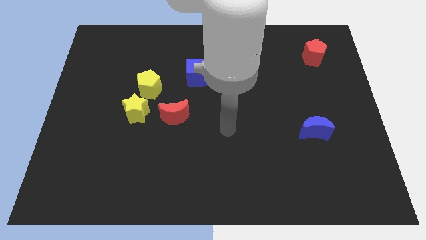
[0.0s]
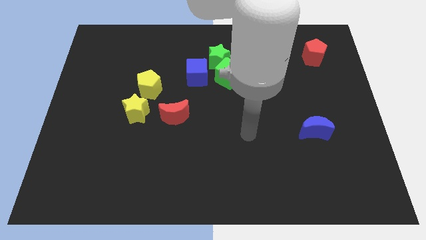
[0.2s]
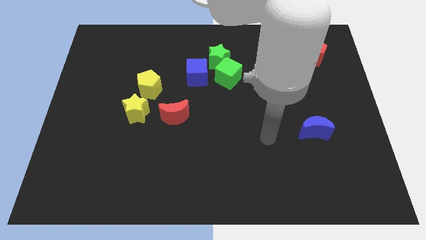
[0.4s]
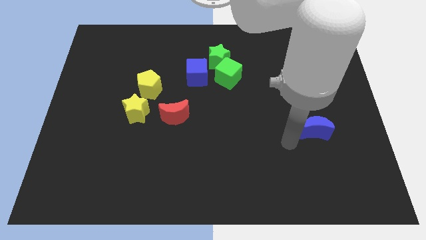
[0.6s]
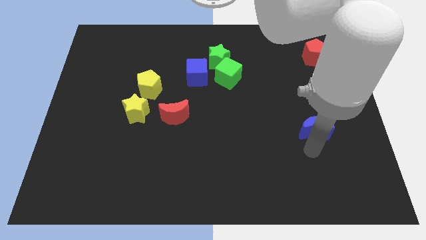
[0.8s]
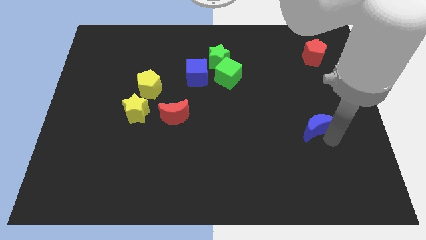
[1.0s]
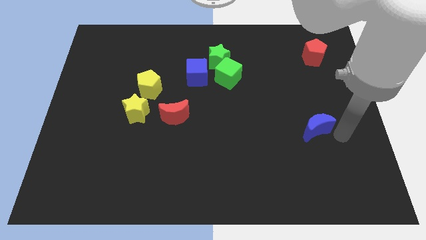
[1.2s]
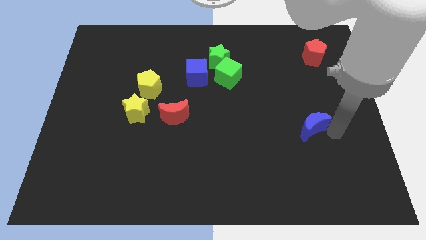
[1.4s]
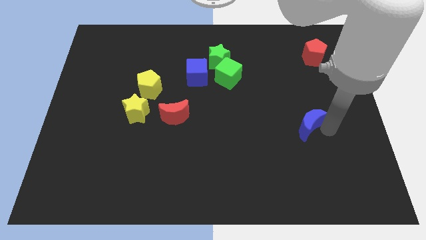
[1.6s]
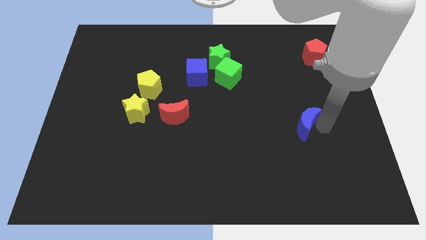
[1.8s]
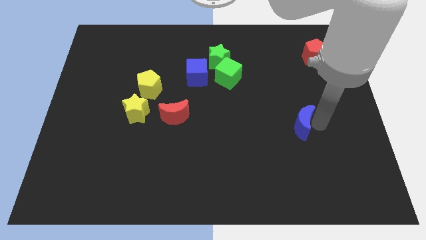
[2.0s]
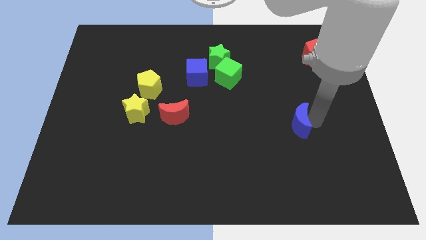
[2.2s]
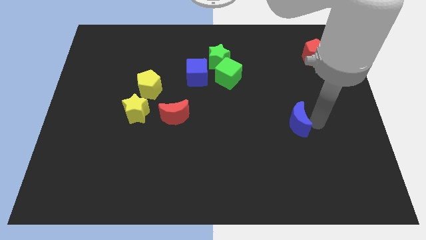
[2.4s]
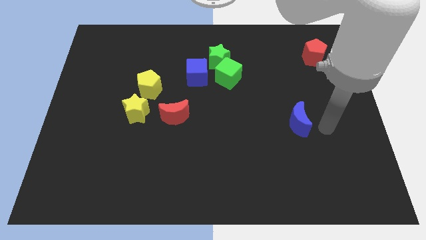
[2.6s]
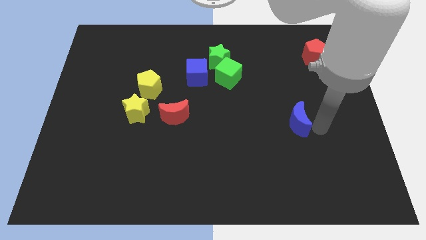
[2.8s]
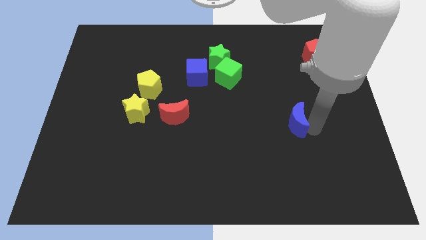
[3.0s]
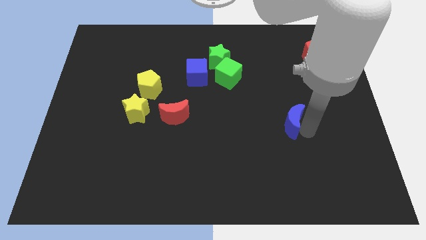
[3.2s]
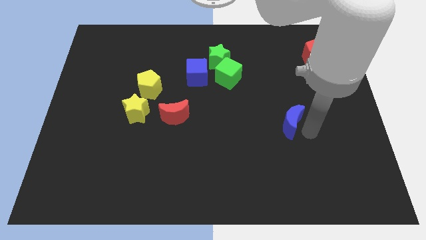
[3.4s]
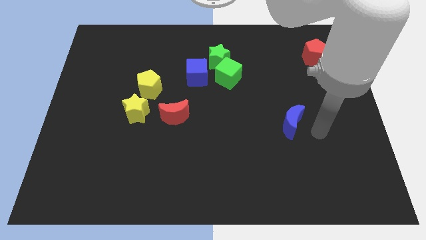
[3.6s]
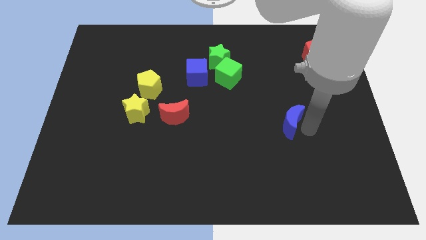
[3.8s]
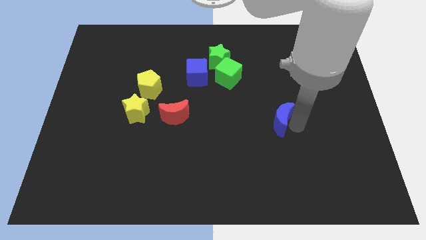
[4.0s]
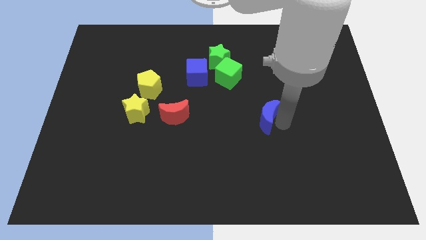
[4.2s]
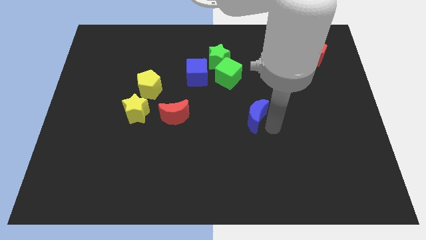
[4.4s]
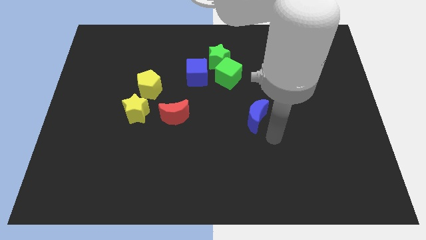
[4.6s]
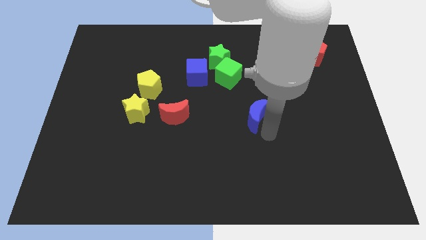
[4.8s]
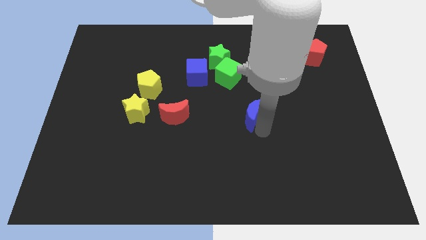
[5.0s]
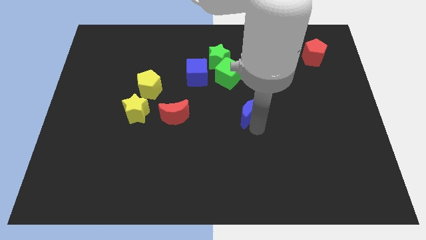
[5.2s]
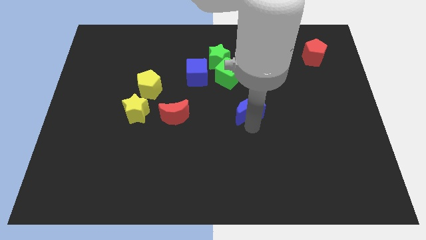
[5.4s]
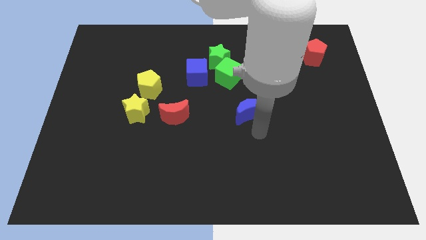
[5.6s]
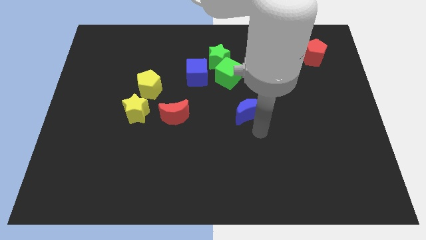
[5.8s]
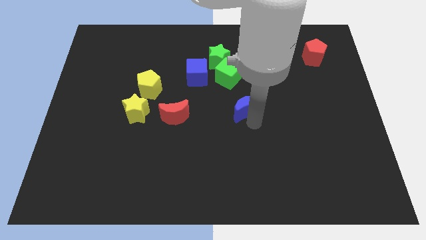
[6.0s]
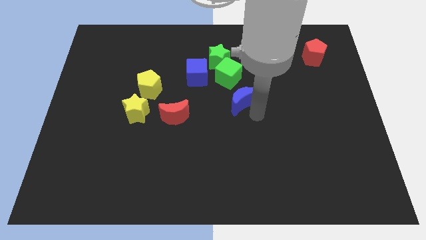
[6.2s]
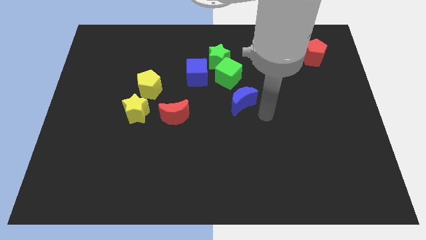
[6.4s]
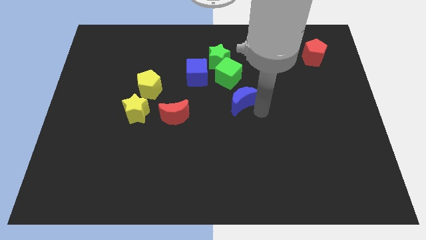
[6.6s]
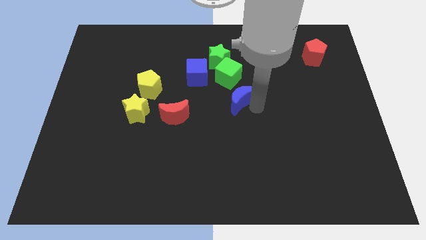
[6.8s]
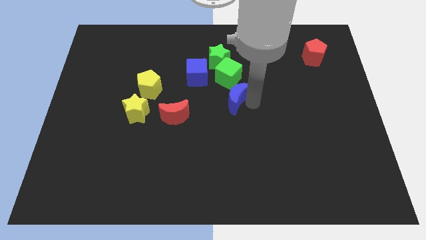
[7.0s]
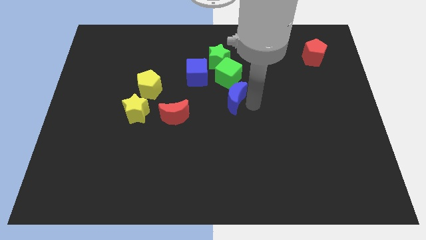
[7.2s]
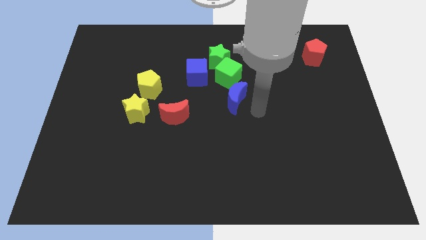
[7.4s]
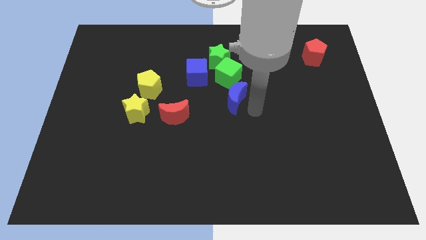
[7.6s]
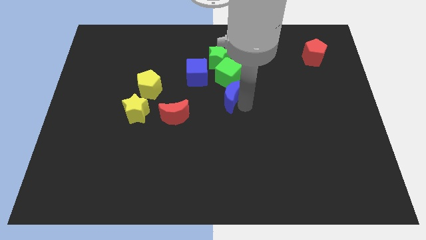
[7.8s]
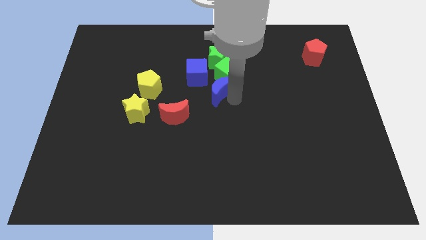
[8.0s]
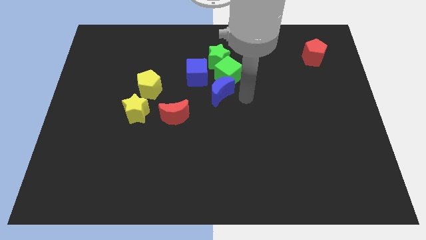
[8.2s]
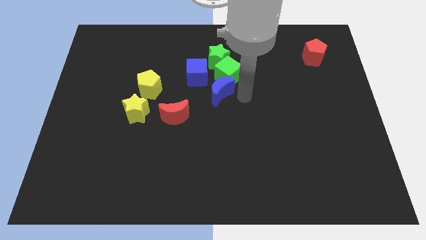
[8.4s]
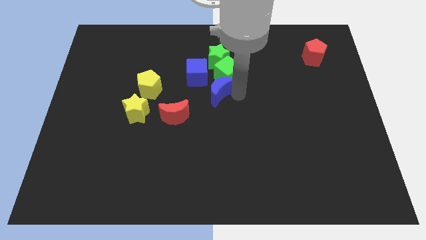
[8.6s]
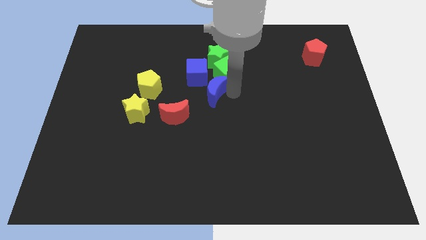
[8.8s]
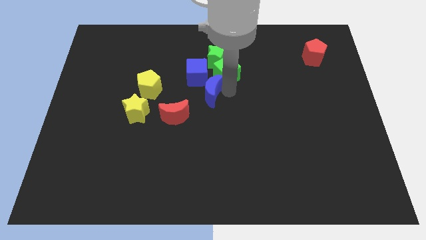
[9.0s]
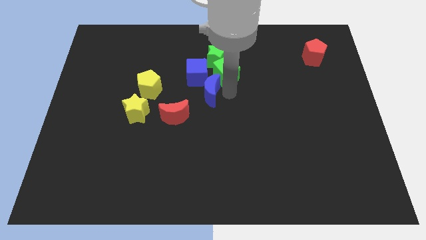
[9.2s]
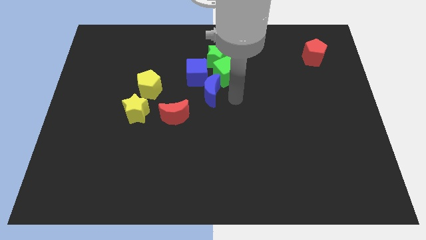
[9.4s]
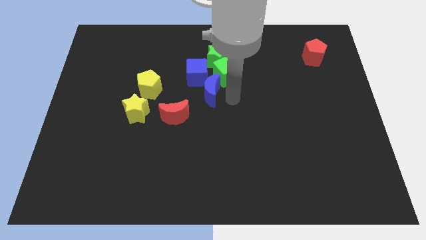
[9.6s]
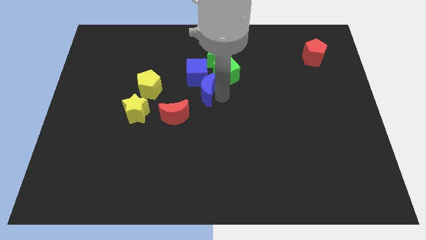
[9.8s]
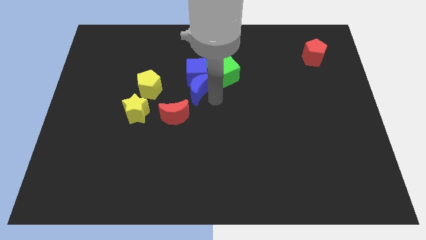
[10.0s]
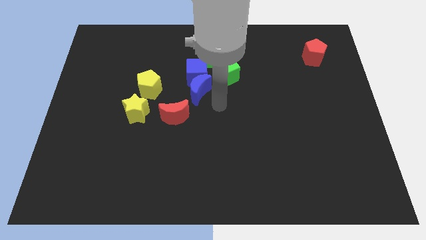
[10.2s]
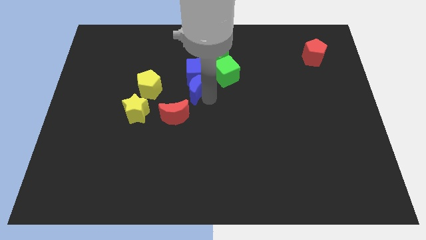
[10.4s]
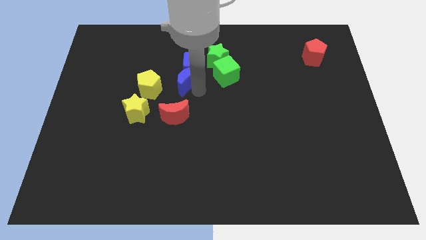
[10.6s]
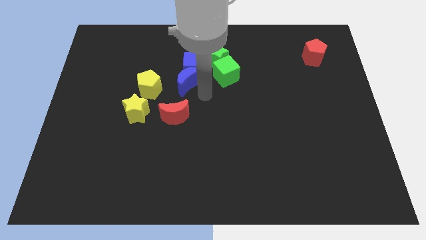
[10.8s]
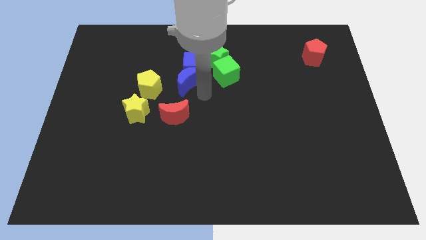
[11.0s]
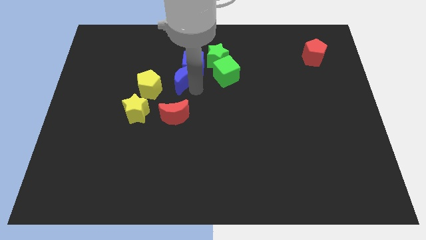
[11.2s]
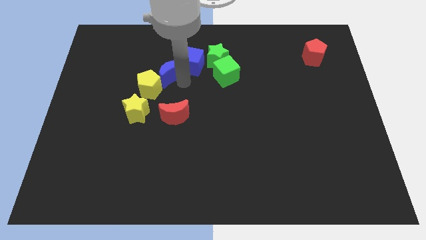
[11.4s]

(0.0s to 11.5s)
slide the blue moon to the top of the yellow pentagon

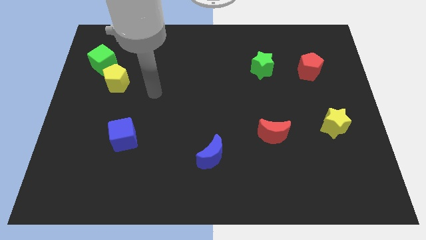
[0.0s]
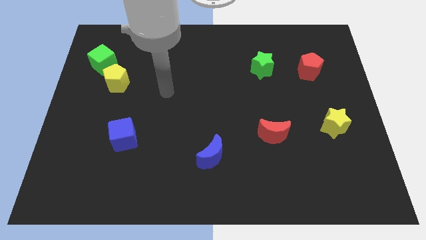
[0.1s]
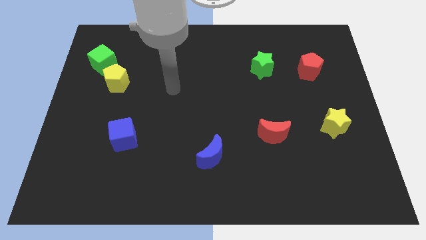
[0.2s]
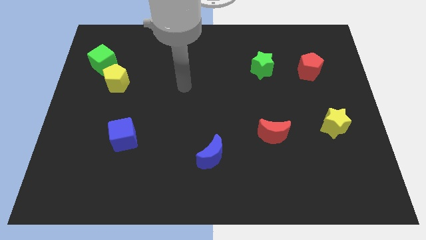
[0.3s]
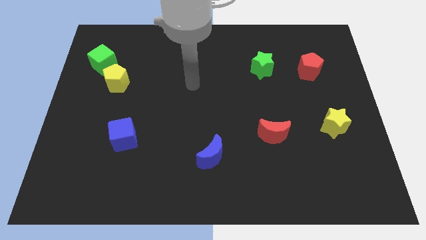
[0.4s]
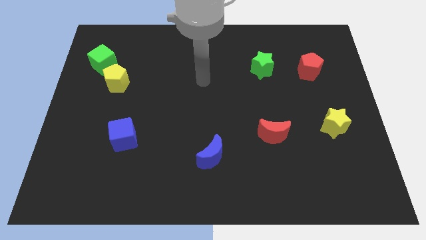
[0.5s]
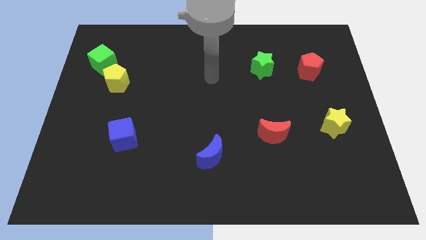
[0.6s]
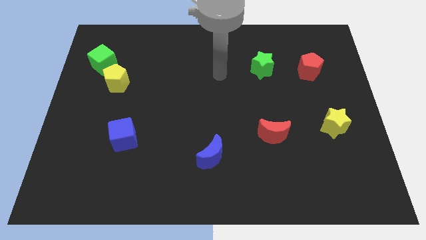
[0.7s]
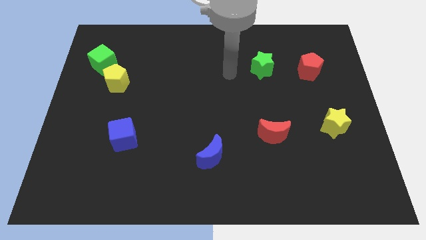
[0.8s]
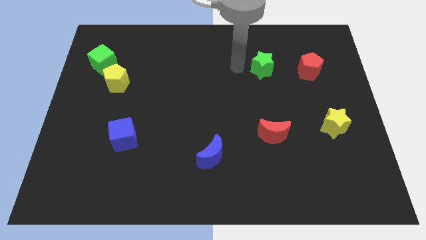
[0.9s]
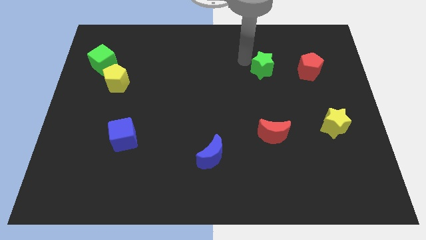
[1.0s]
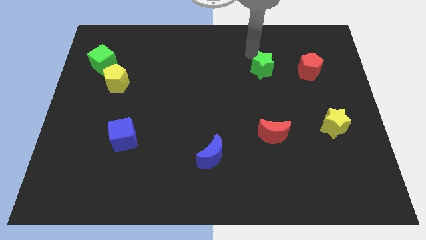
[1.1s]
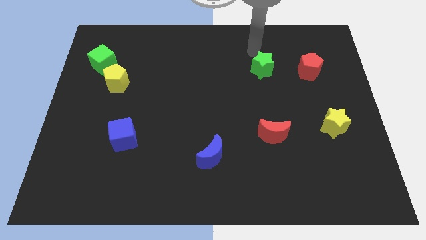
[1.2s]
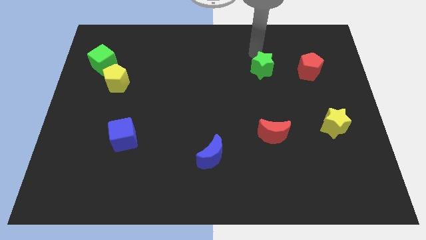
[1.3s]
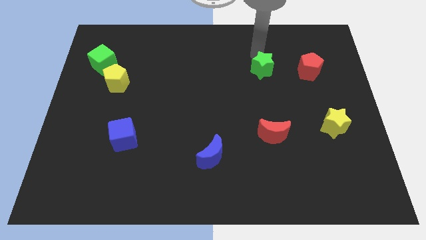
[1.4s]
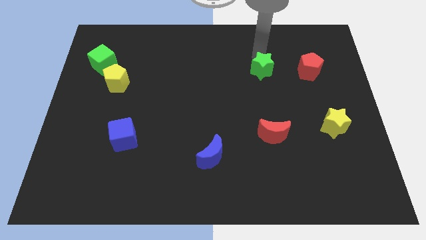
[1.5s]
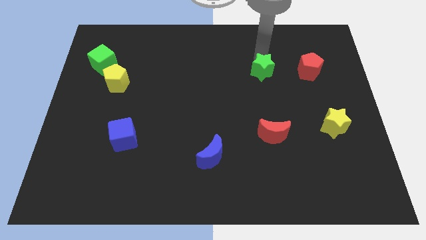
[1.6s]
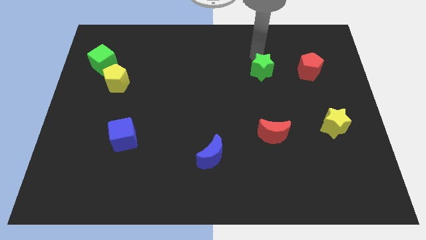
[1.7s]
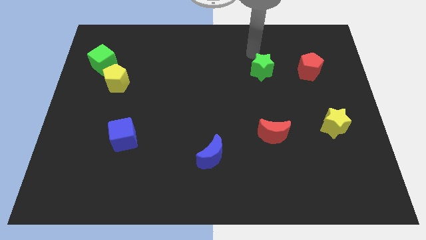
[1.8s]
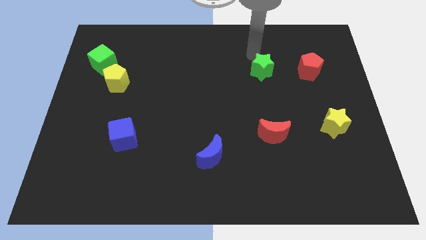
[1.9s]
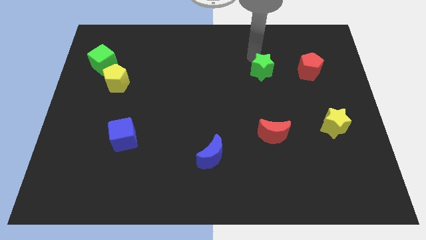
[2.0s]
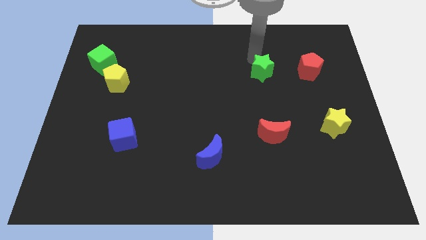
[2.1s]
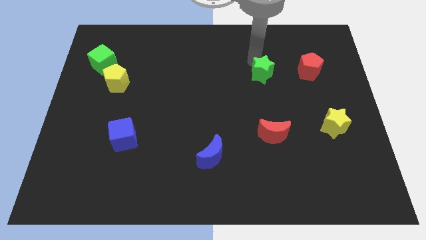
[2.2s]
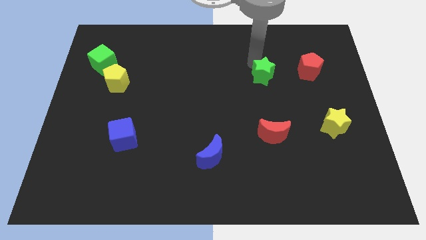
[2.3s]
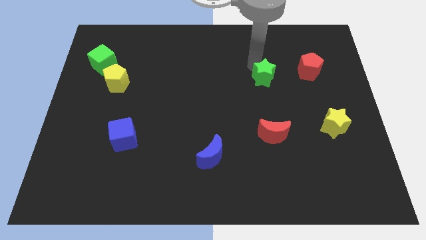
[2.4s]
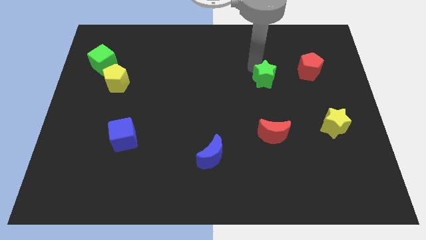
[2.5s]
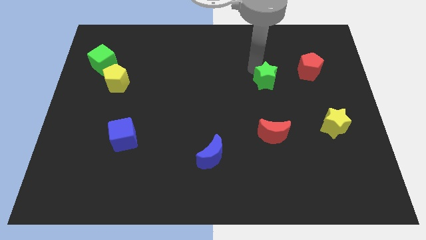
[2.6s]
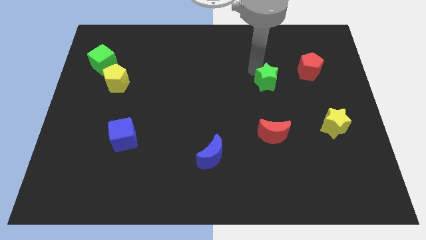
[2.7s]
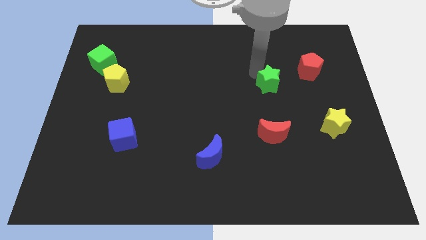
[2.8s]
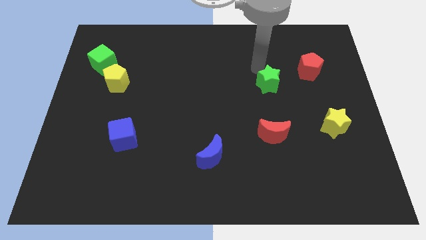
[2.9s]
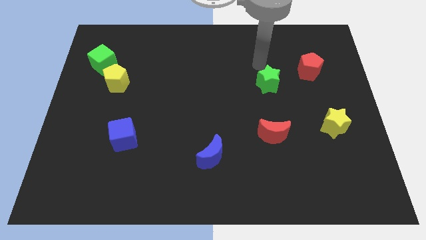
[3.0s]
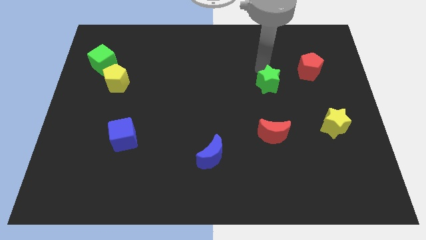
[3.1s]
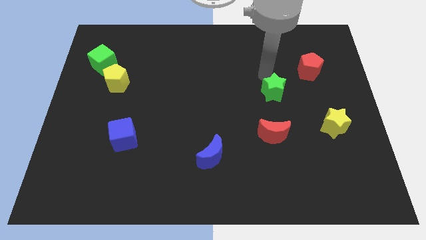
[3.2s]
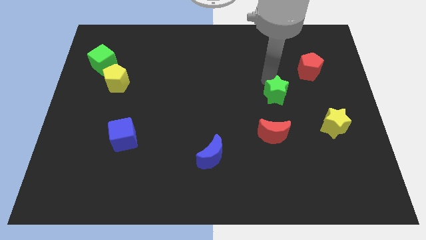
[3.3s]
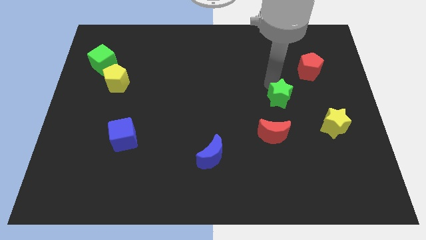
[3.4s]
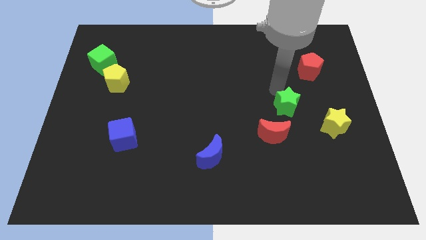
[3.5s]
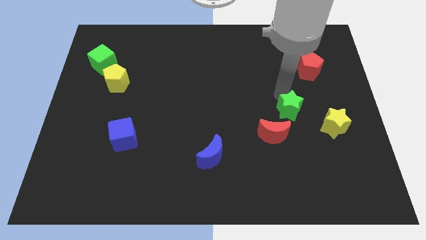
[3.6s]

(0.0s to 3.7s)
push the green star just left of the yellow star
